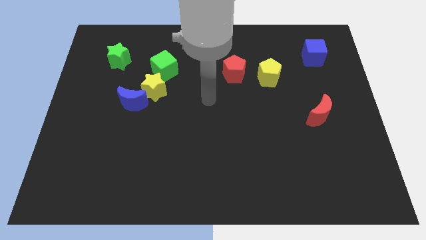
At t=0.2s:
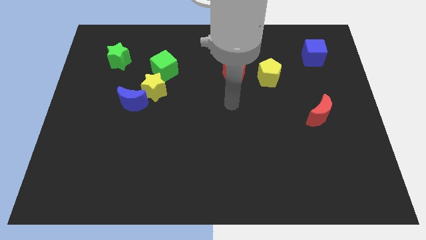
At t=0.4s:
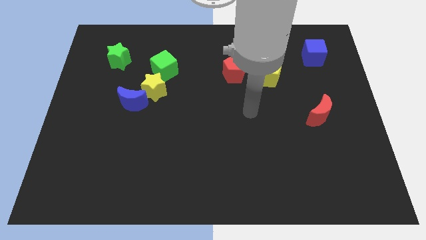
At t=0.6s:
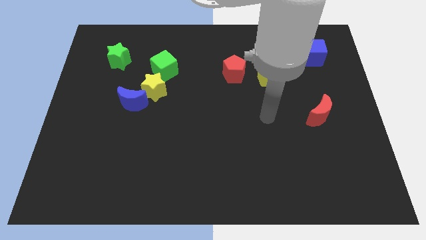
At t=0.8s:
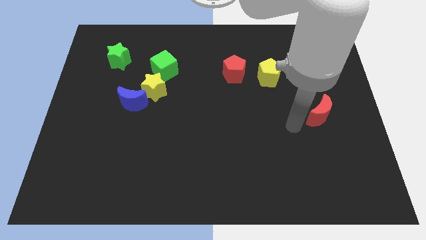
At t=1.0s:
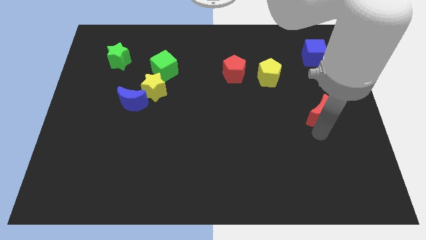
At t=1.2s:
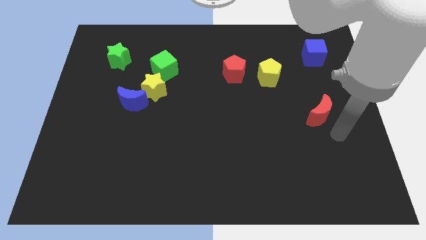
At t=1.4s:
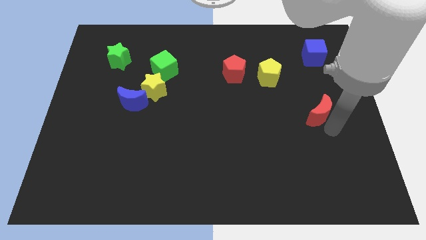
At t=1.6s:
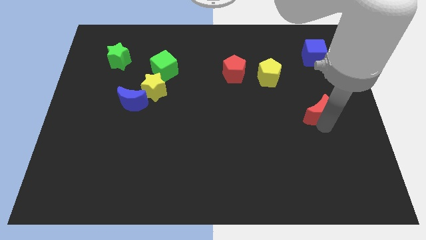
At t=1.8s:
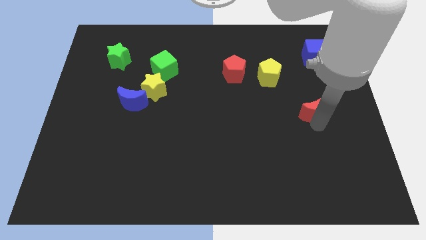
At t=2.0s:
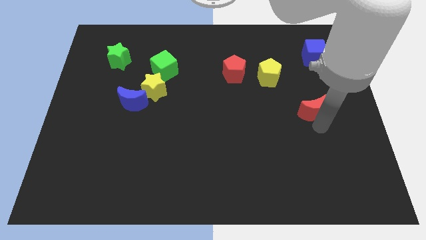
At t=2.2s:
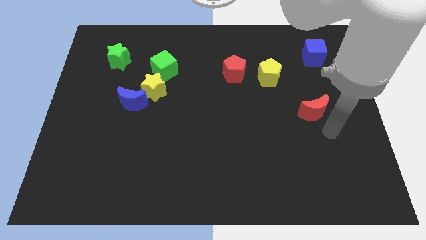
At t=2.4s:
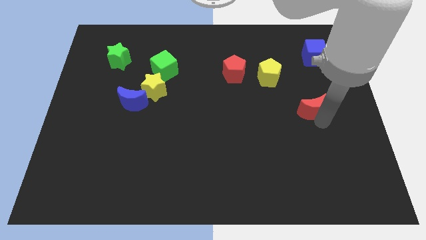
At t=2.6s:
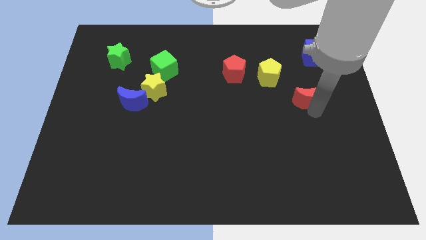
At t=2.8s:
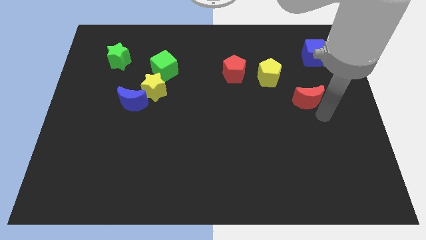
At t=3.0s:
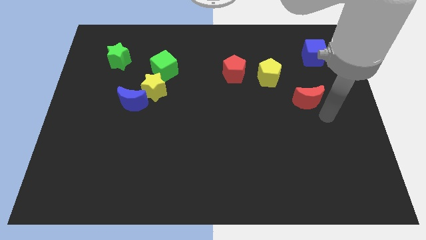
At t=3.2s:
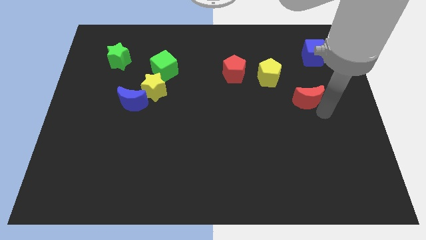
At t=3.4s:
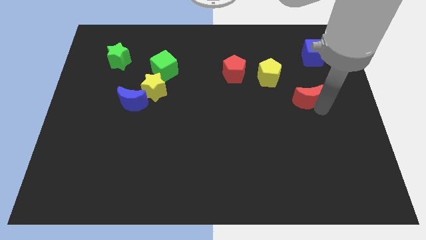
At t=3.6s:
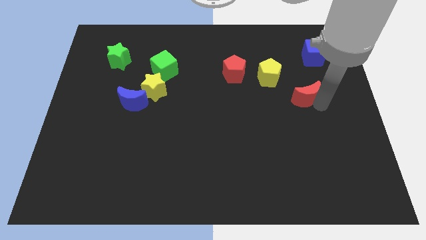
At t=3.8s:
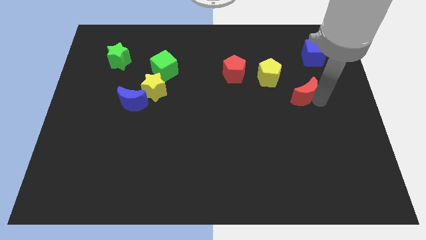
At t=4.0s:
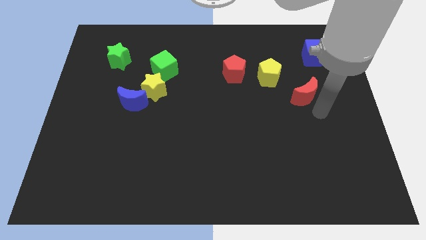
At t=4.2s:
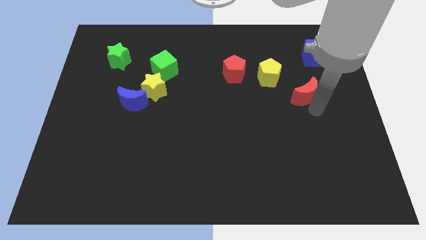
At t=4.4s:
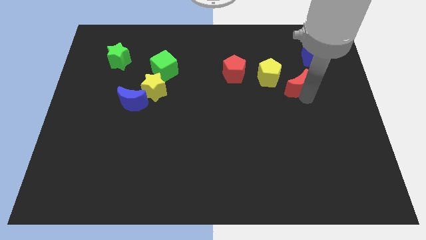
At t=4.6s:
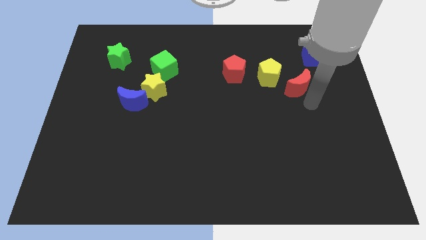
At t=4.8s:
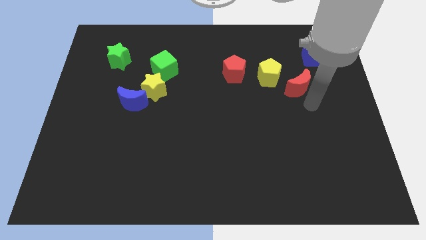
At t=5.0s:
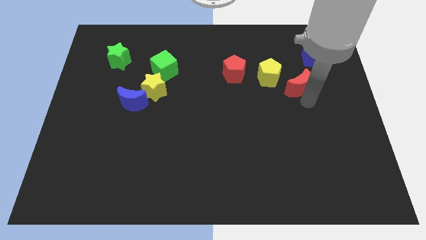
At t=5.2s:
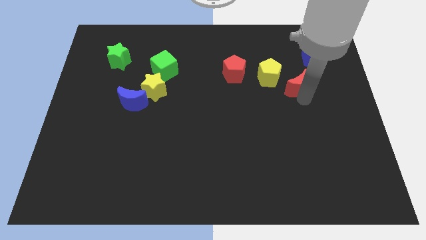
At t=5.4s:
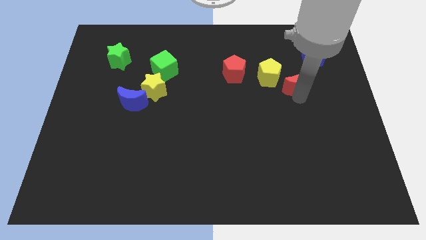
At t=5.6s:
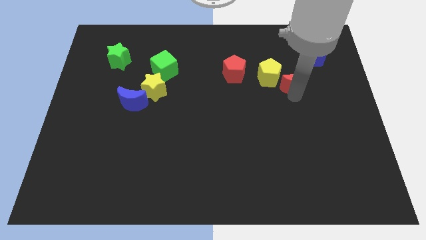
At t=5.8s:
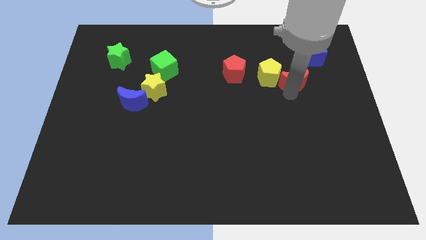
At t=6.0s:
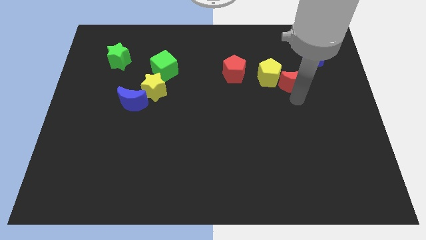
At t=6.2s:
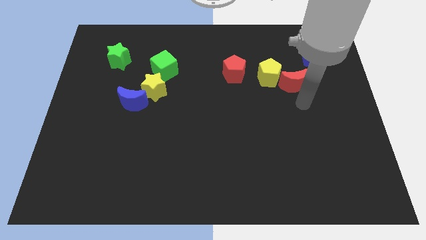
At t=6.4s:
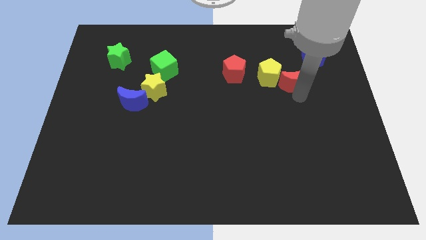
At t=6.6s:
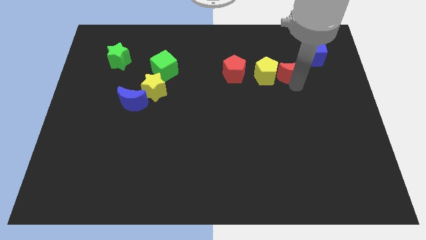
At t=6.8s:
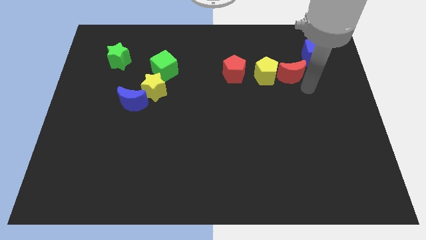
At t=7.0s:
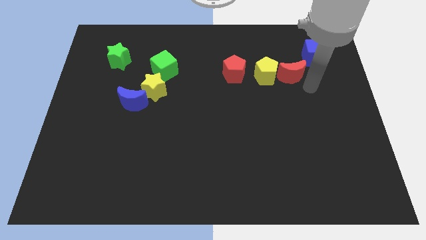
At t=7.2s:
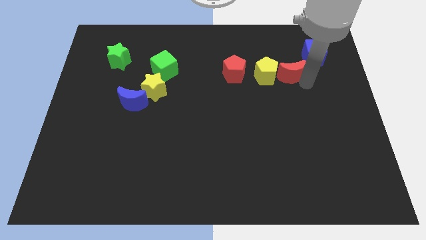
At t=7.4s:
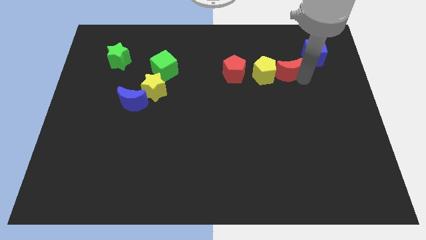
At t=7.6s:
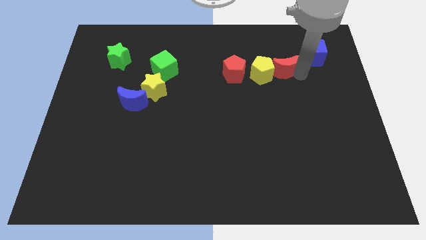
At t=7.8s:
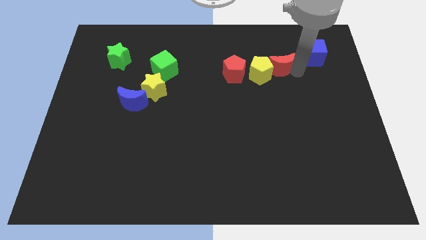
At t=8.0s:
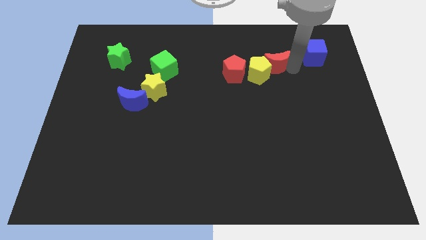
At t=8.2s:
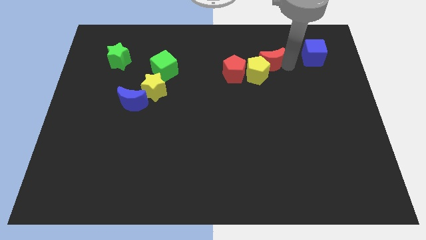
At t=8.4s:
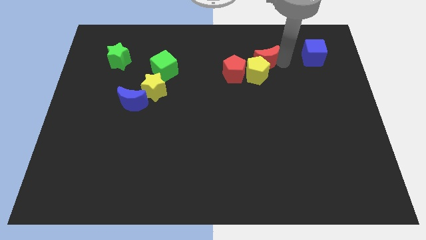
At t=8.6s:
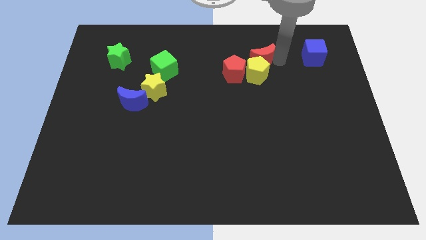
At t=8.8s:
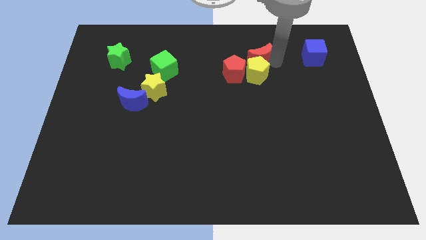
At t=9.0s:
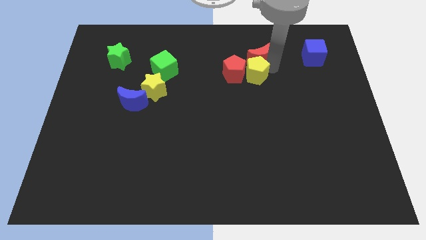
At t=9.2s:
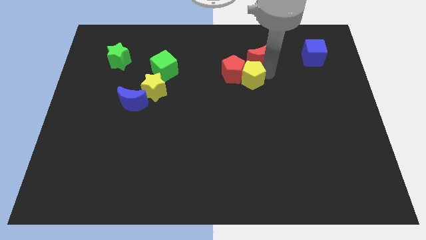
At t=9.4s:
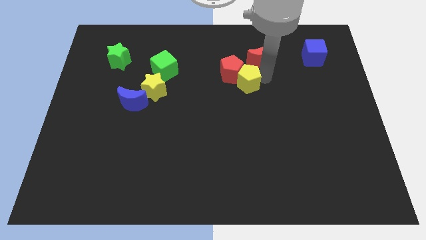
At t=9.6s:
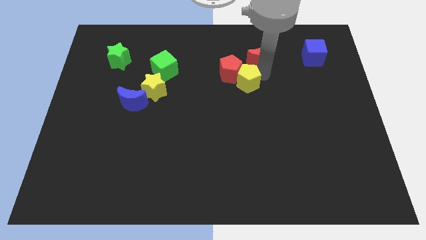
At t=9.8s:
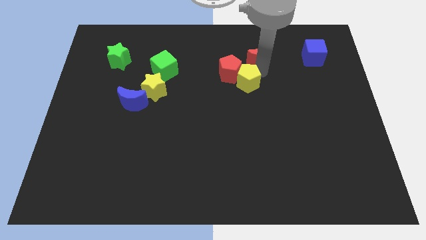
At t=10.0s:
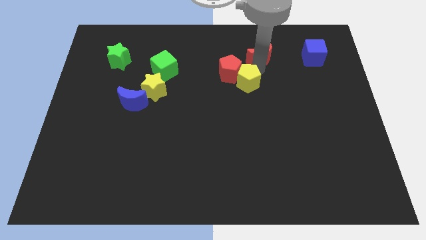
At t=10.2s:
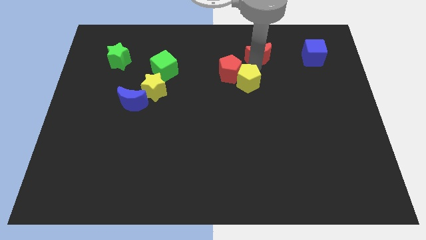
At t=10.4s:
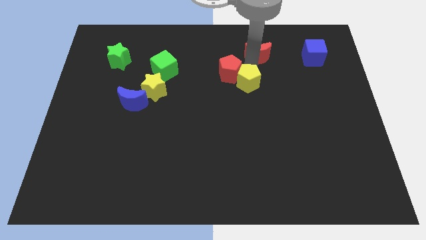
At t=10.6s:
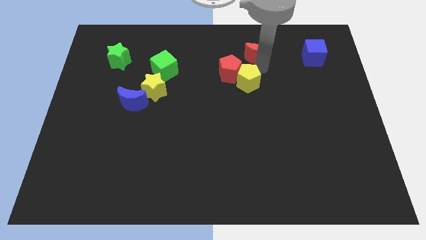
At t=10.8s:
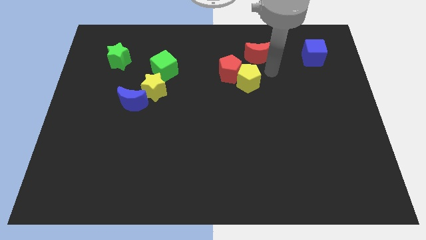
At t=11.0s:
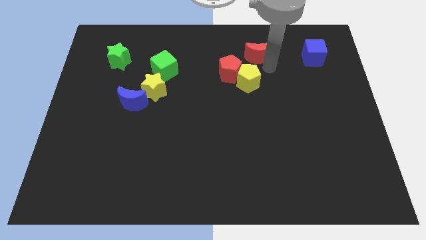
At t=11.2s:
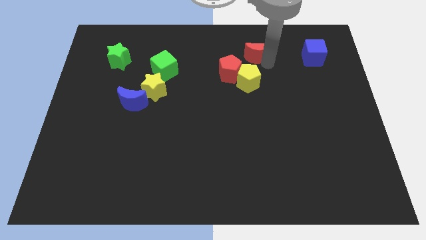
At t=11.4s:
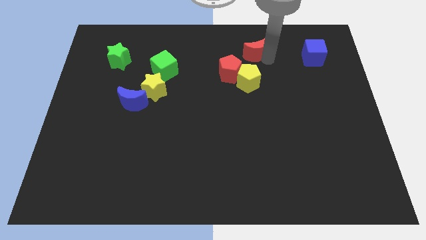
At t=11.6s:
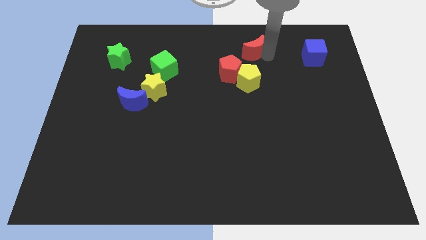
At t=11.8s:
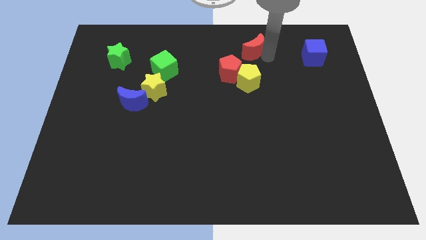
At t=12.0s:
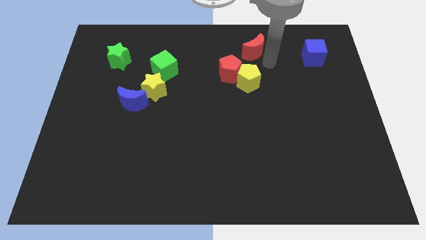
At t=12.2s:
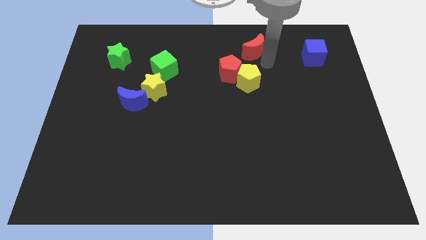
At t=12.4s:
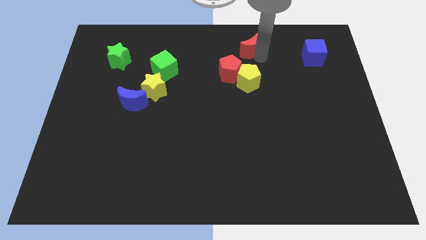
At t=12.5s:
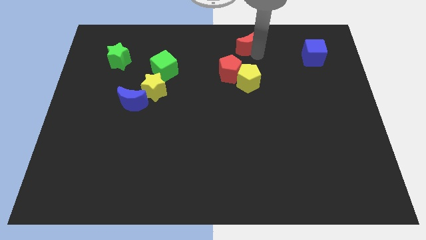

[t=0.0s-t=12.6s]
push the red moon to the top side
